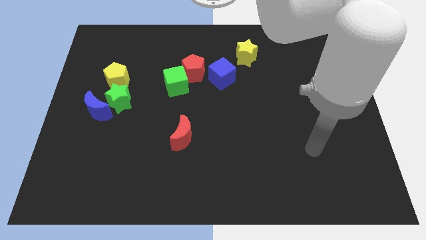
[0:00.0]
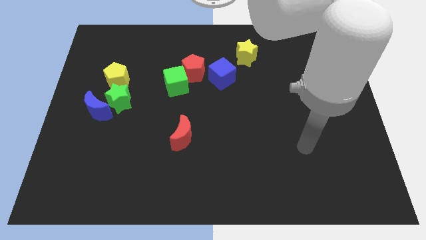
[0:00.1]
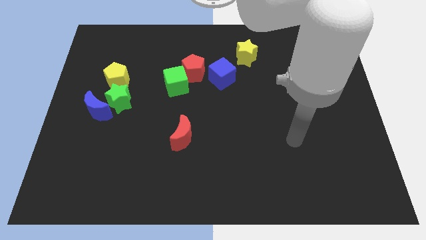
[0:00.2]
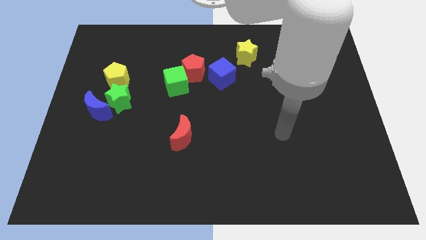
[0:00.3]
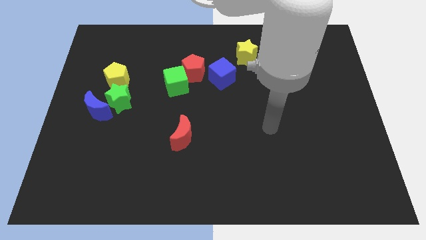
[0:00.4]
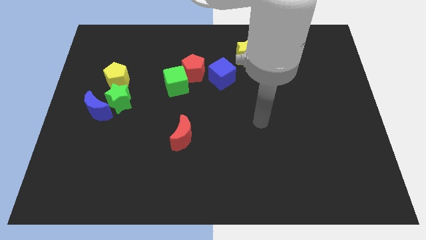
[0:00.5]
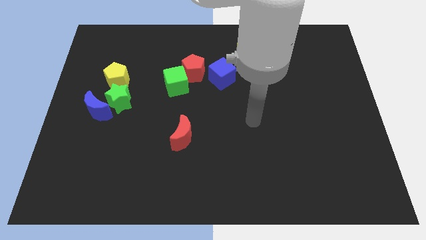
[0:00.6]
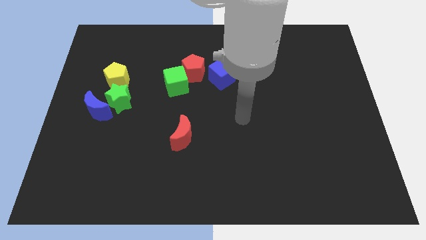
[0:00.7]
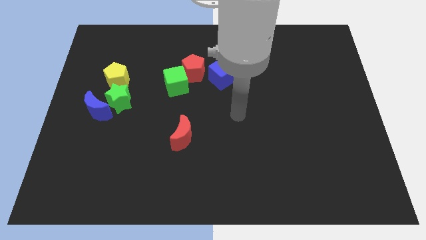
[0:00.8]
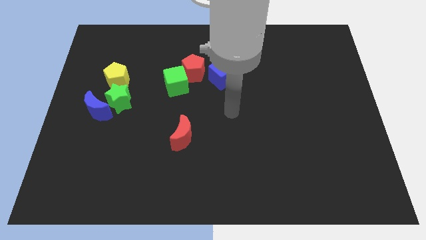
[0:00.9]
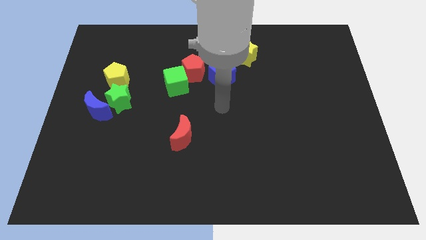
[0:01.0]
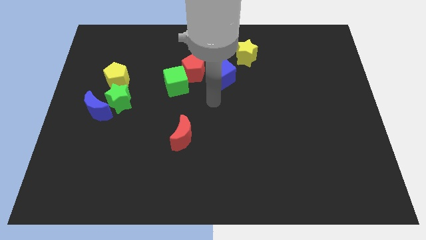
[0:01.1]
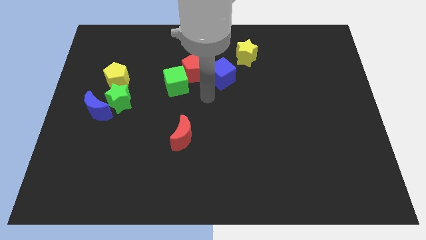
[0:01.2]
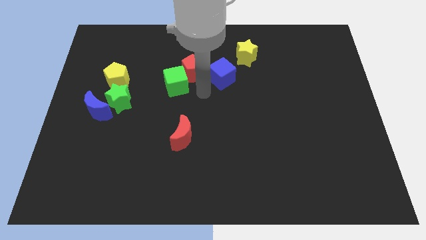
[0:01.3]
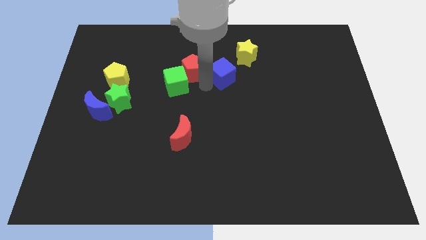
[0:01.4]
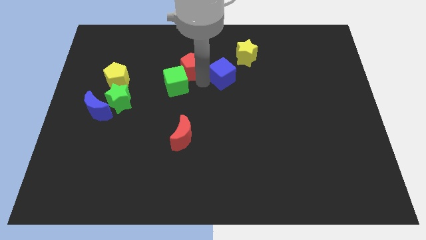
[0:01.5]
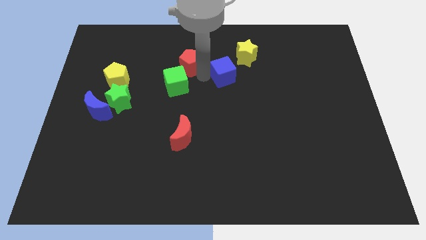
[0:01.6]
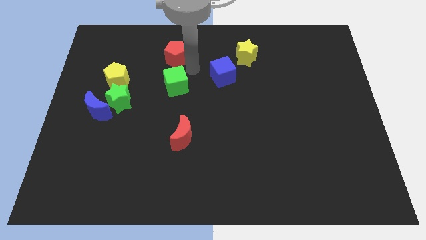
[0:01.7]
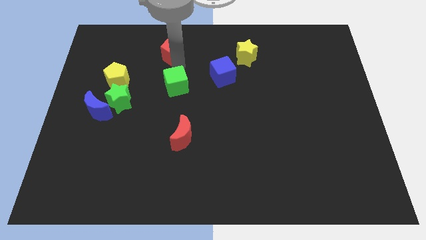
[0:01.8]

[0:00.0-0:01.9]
pull the green cube apart from the red pentagon

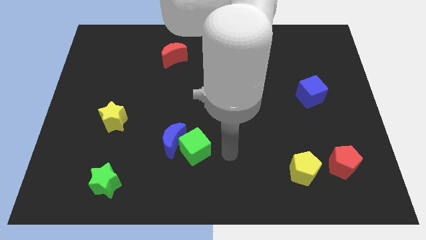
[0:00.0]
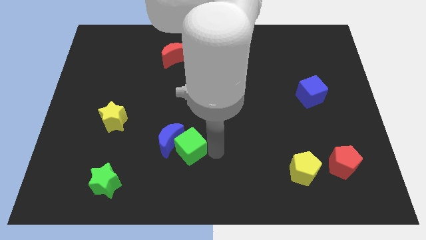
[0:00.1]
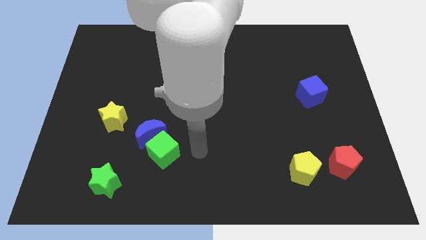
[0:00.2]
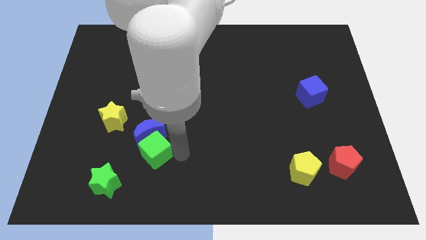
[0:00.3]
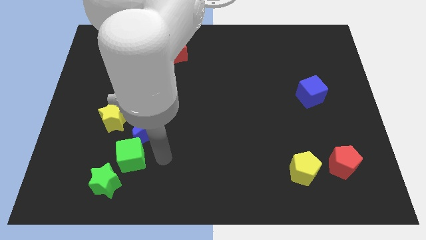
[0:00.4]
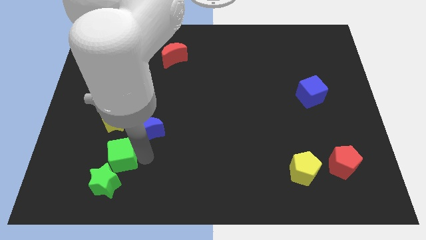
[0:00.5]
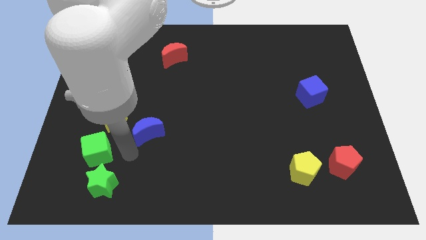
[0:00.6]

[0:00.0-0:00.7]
move the blue moon away from the green cube

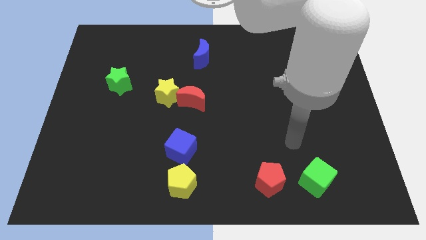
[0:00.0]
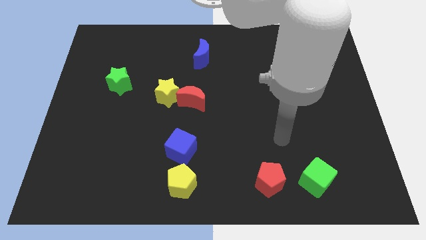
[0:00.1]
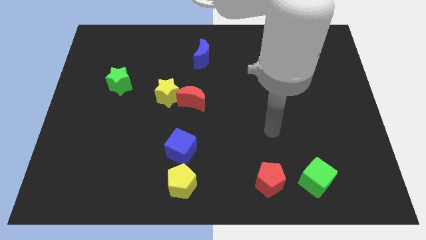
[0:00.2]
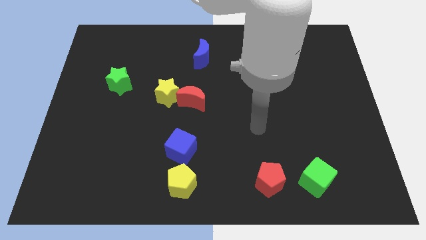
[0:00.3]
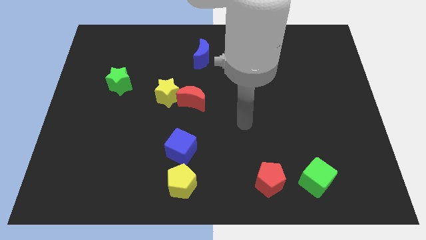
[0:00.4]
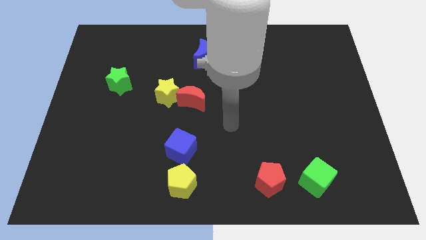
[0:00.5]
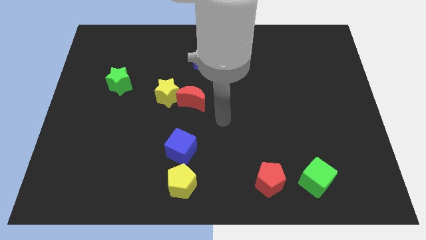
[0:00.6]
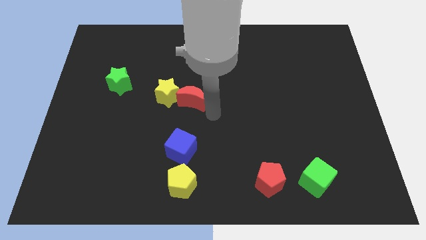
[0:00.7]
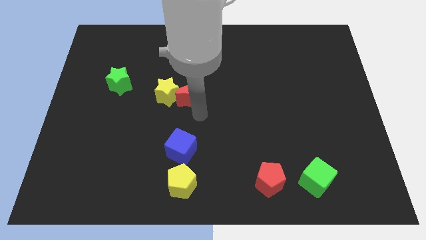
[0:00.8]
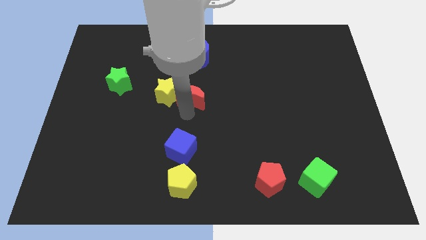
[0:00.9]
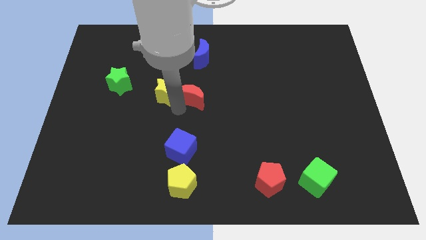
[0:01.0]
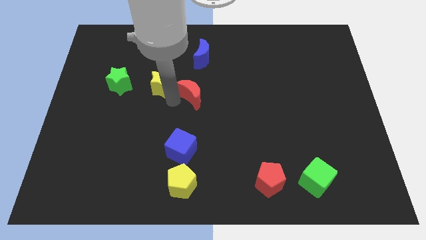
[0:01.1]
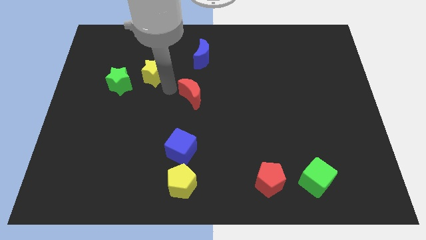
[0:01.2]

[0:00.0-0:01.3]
pull the red moon apart from the yellow star

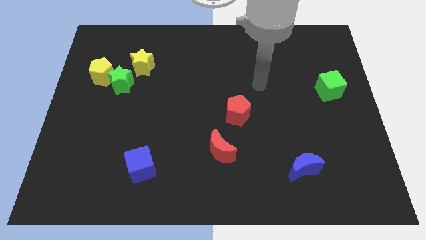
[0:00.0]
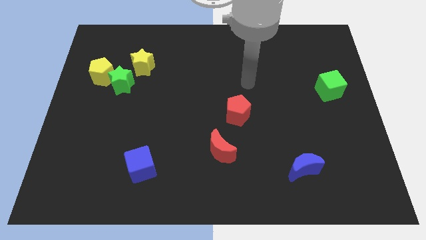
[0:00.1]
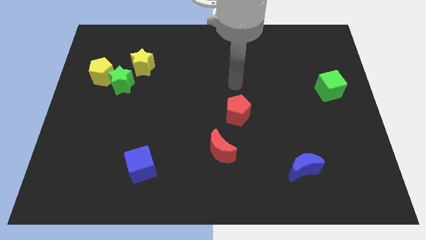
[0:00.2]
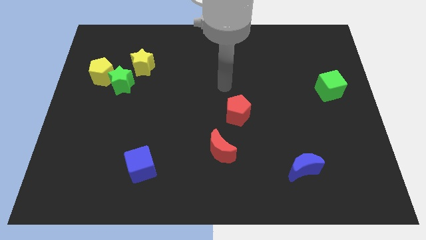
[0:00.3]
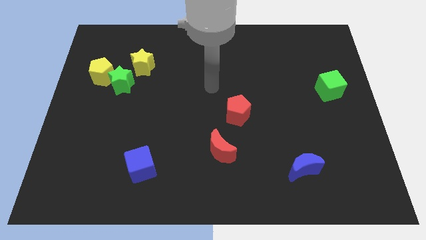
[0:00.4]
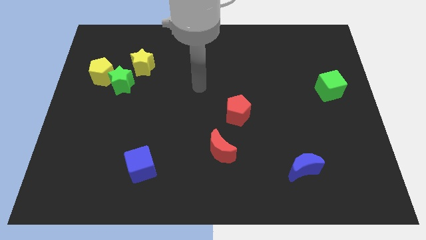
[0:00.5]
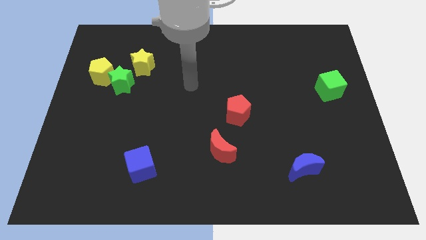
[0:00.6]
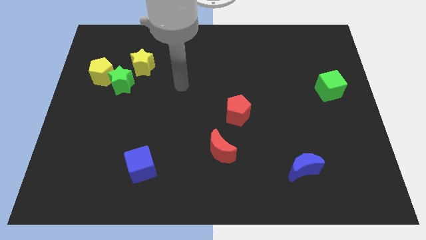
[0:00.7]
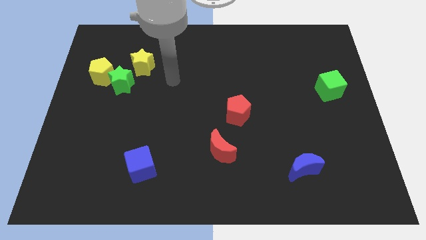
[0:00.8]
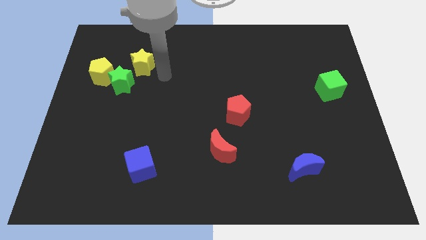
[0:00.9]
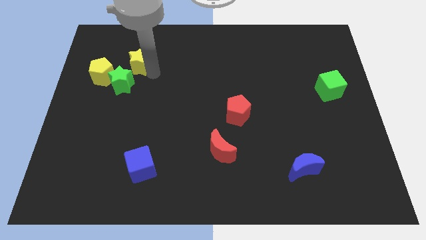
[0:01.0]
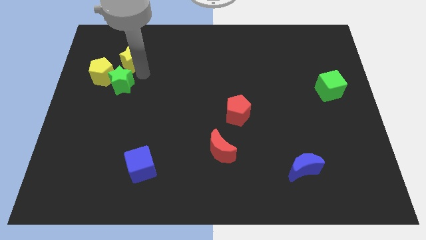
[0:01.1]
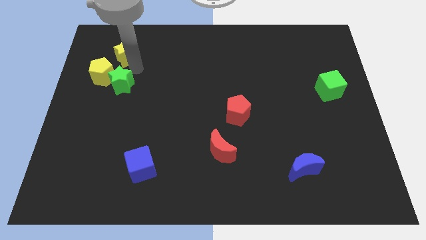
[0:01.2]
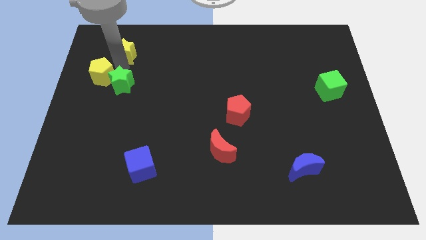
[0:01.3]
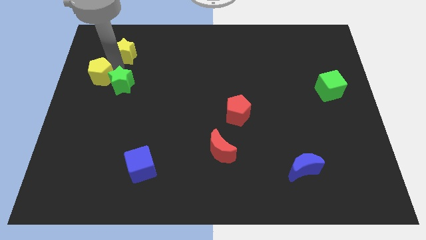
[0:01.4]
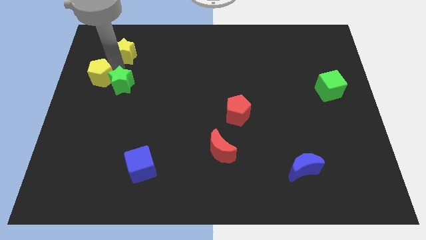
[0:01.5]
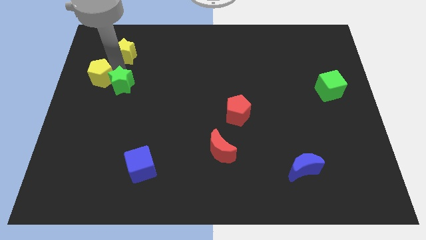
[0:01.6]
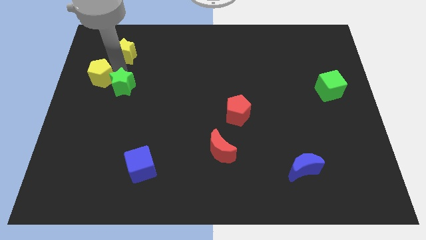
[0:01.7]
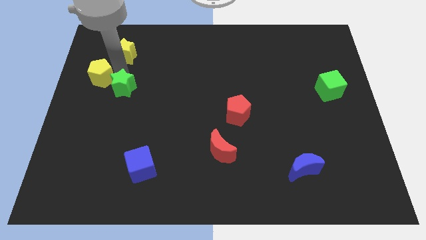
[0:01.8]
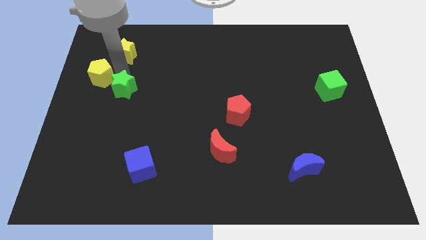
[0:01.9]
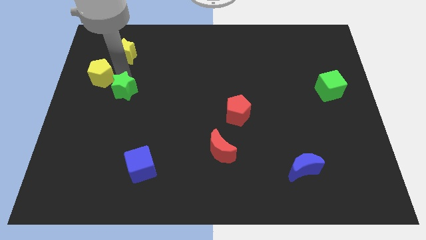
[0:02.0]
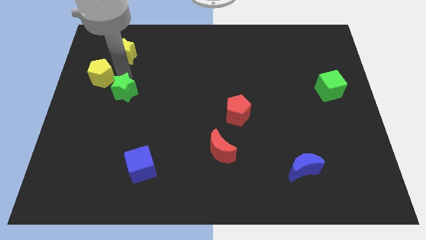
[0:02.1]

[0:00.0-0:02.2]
pull the green star apart from the yellow pentagon and yellow star

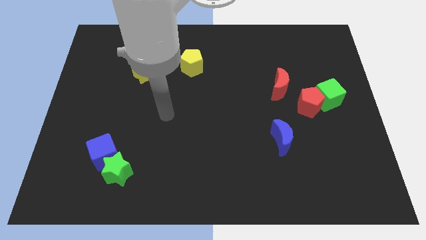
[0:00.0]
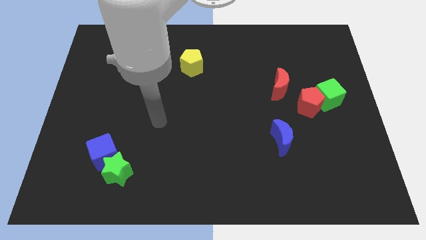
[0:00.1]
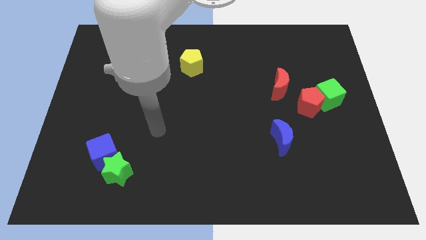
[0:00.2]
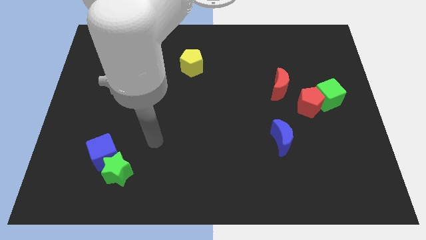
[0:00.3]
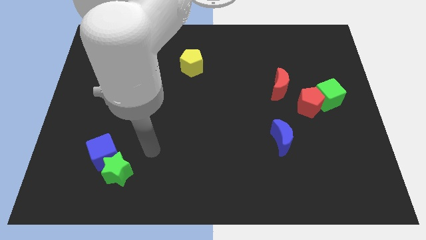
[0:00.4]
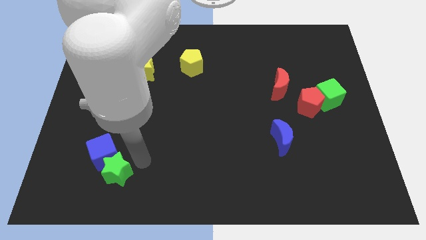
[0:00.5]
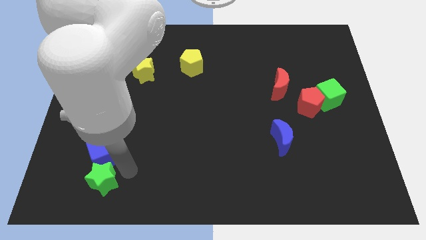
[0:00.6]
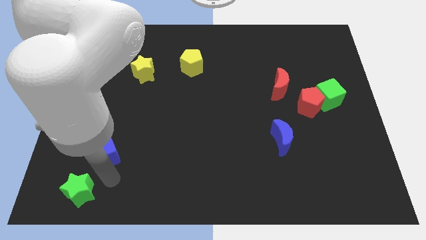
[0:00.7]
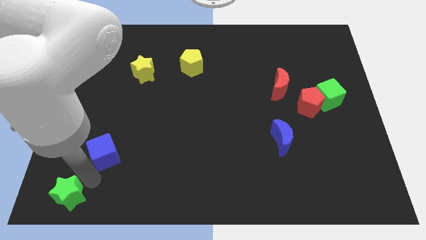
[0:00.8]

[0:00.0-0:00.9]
separate the blue cube from the green star

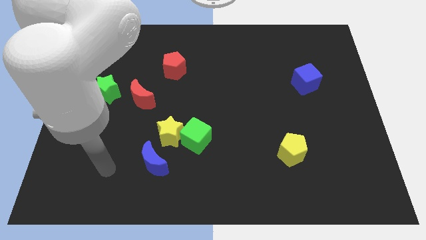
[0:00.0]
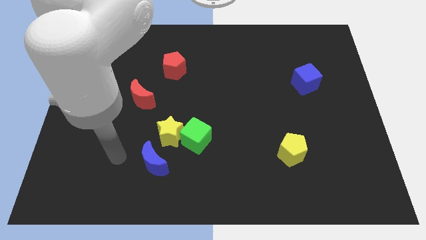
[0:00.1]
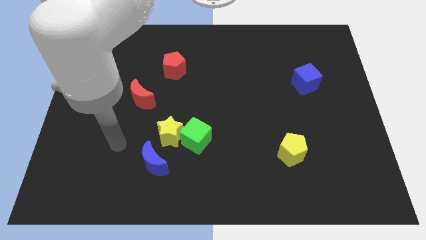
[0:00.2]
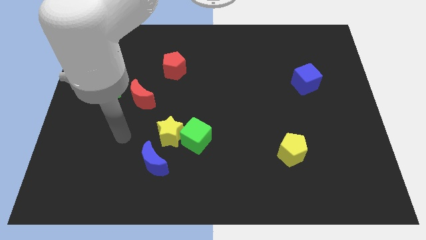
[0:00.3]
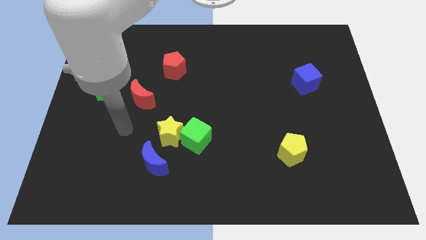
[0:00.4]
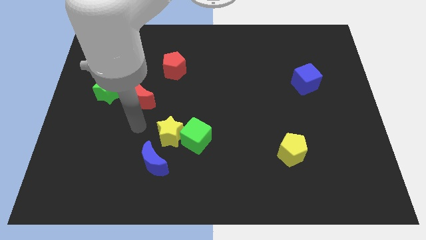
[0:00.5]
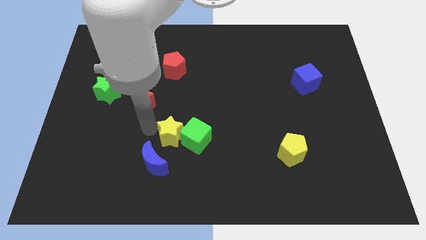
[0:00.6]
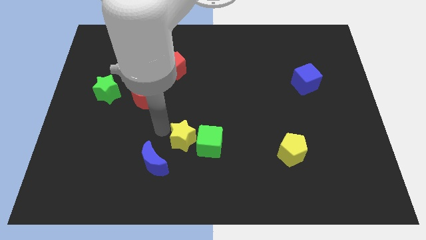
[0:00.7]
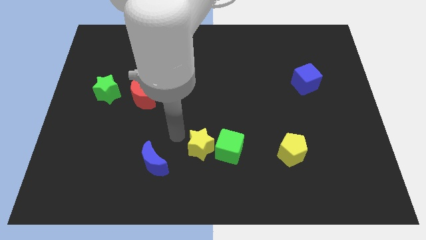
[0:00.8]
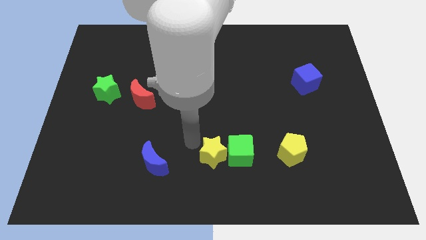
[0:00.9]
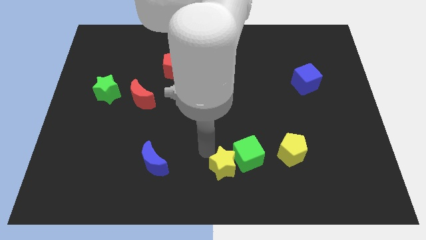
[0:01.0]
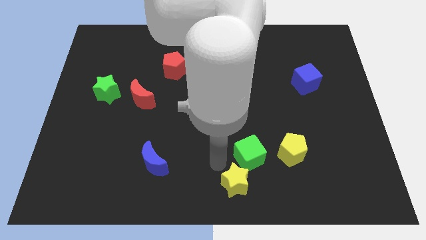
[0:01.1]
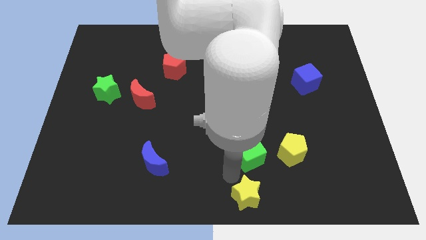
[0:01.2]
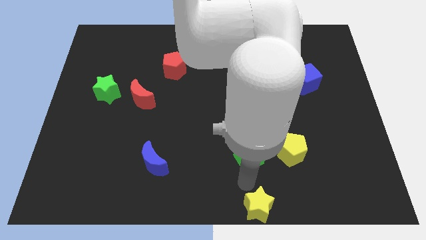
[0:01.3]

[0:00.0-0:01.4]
separate the green cube from the yellow star

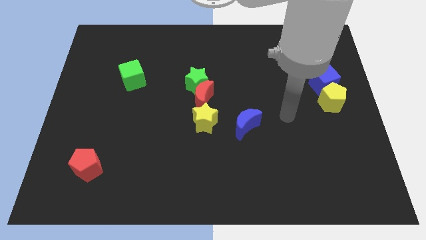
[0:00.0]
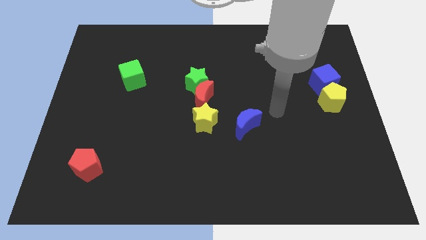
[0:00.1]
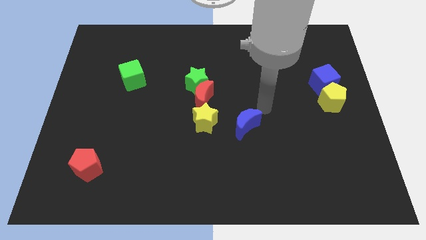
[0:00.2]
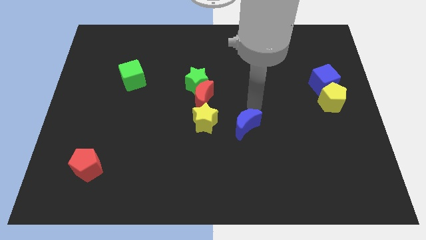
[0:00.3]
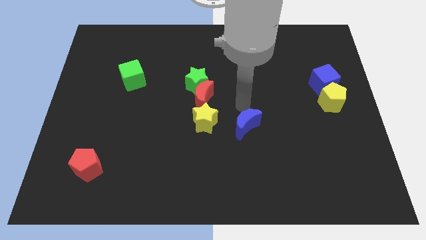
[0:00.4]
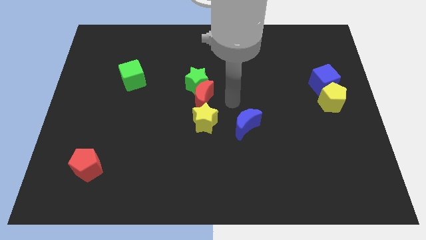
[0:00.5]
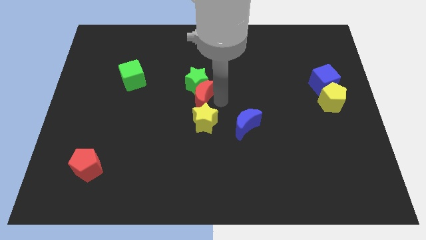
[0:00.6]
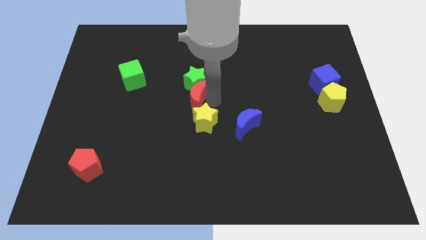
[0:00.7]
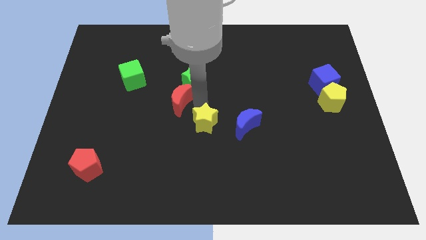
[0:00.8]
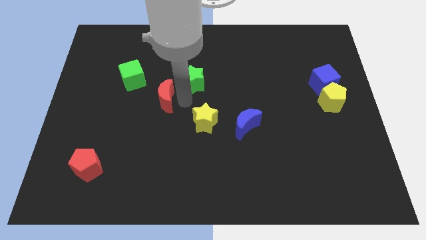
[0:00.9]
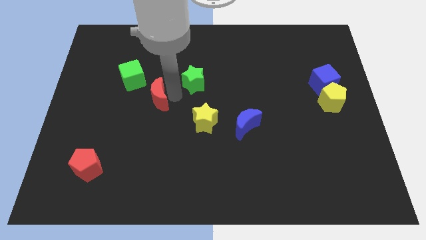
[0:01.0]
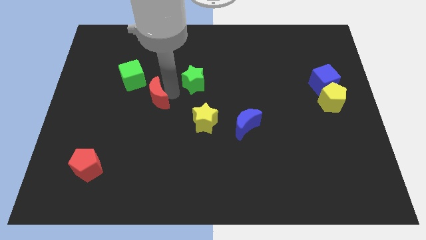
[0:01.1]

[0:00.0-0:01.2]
pull the green star apart from the red moon
